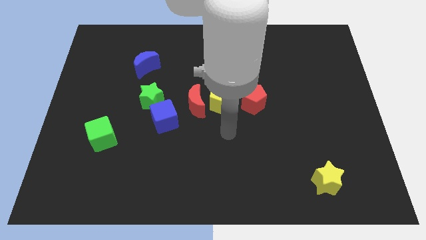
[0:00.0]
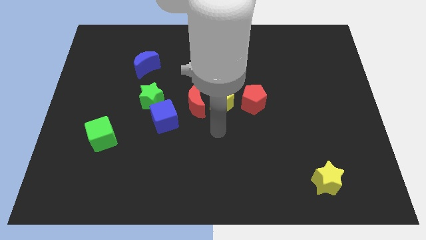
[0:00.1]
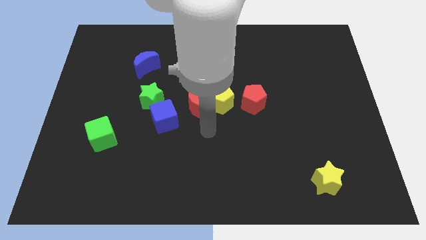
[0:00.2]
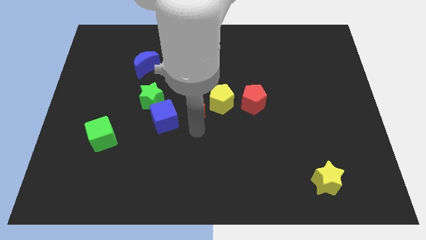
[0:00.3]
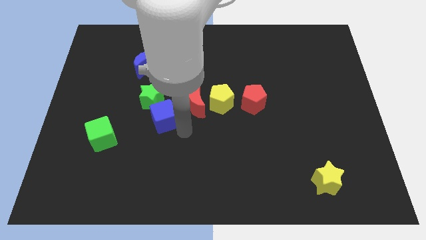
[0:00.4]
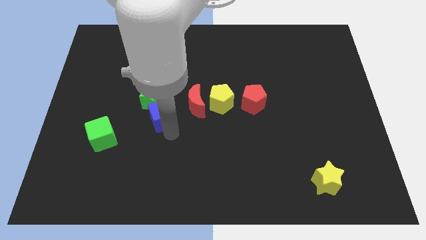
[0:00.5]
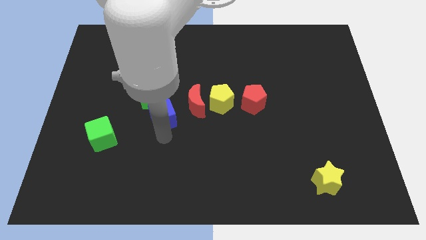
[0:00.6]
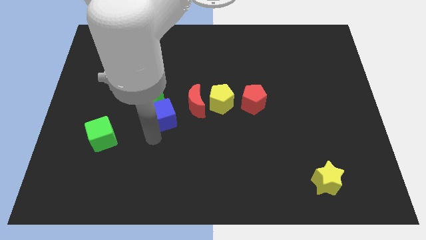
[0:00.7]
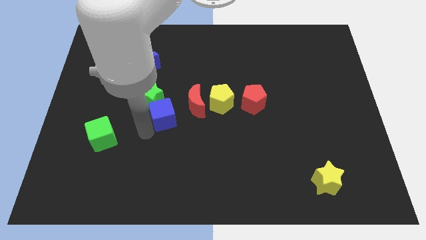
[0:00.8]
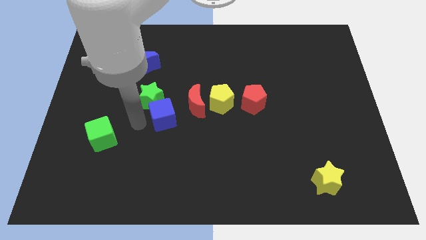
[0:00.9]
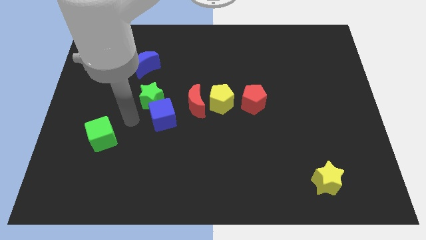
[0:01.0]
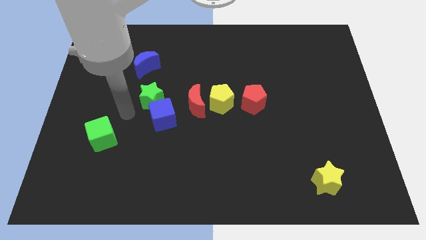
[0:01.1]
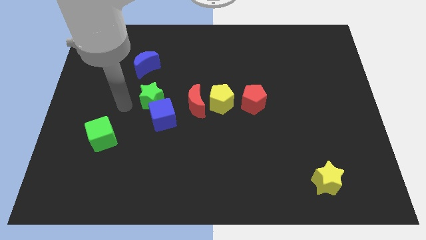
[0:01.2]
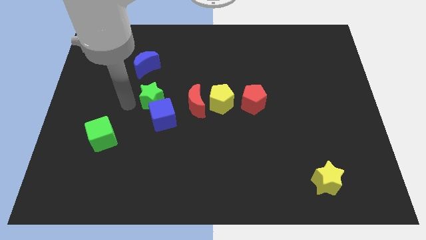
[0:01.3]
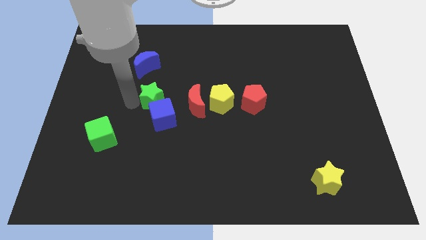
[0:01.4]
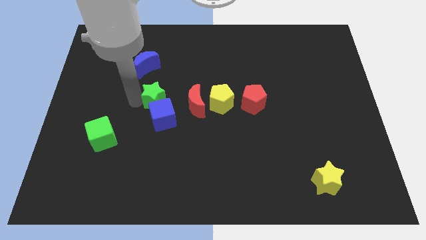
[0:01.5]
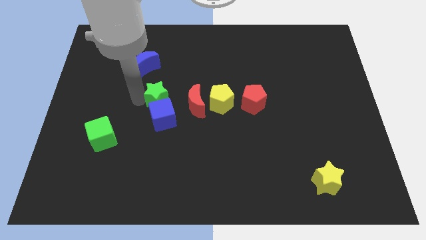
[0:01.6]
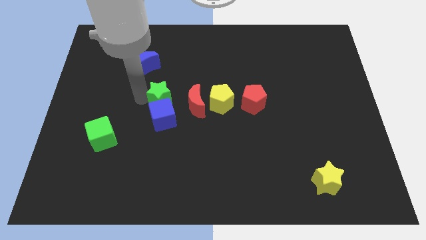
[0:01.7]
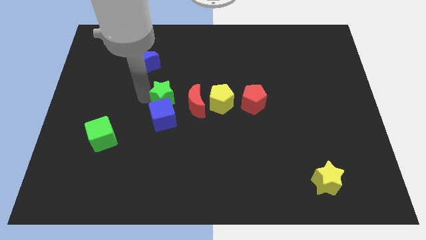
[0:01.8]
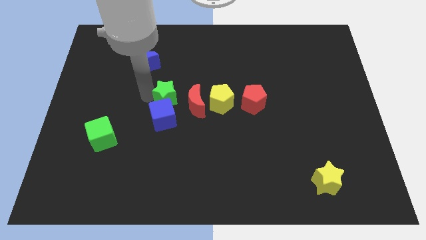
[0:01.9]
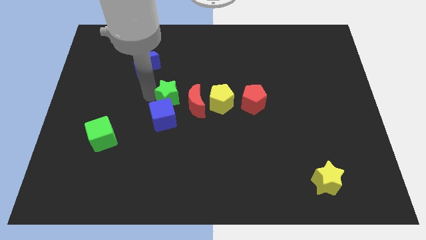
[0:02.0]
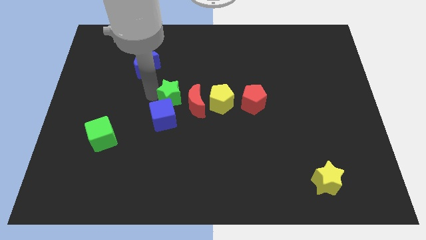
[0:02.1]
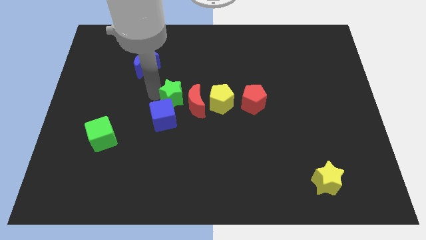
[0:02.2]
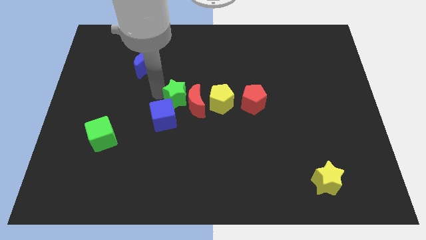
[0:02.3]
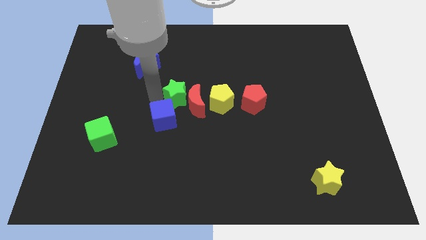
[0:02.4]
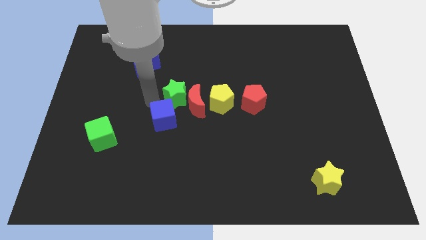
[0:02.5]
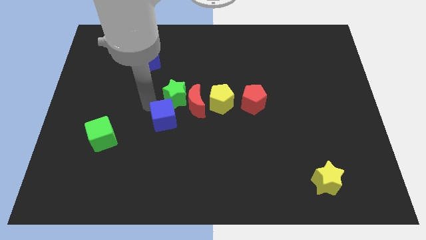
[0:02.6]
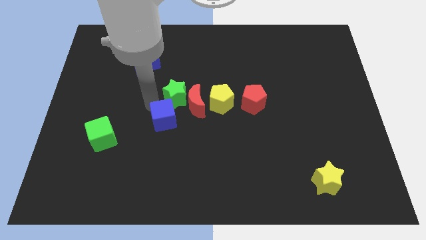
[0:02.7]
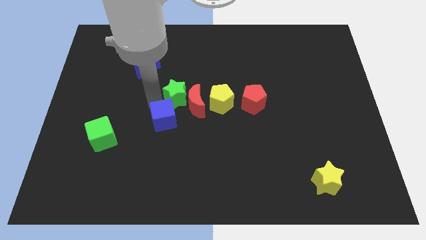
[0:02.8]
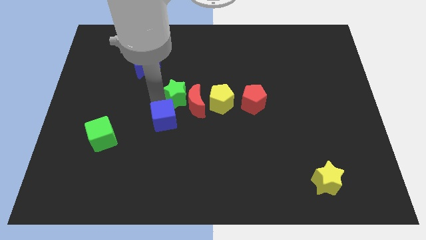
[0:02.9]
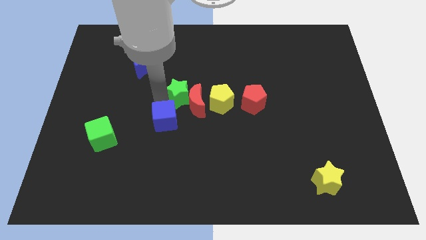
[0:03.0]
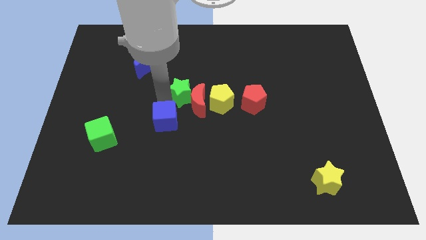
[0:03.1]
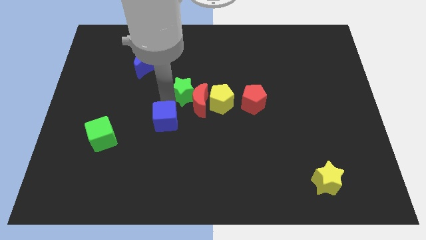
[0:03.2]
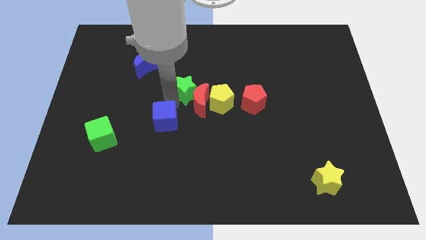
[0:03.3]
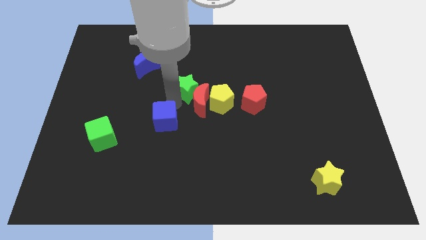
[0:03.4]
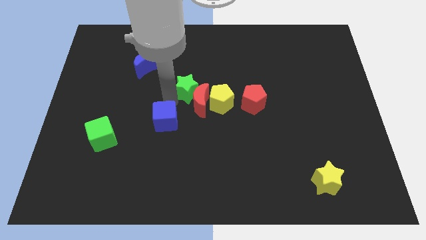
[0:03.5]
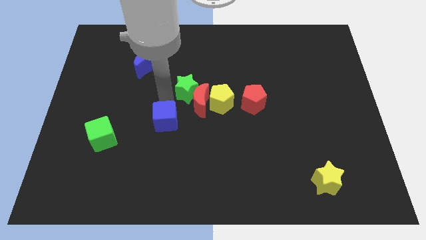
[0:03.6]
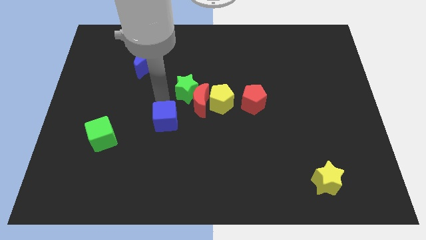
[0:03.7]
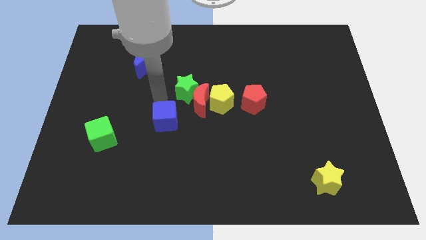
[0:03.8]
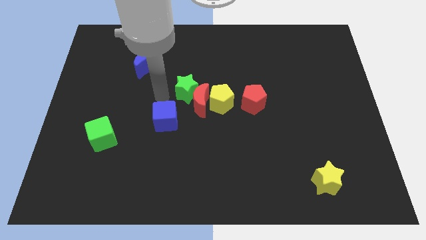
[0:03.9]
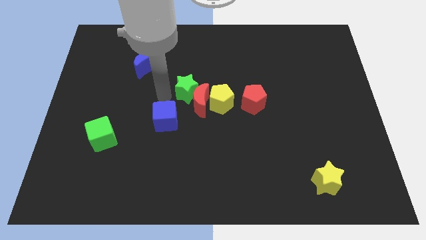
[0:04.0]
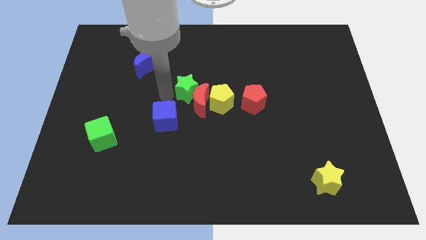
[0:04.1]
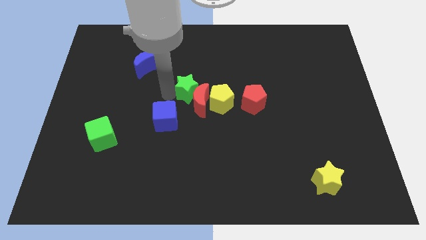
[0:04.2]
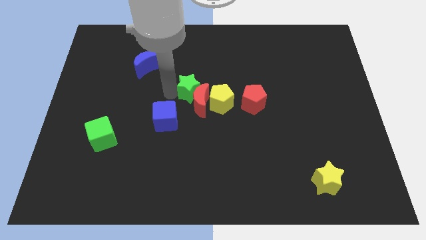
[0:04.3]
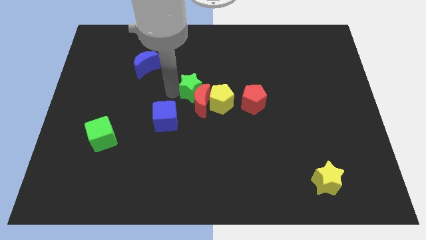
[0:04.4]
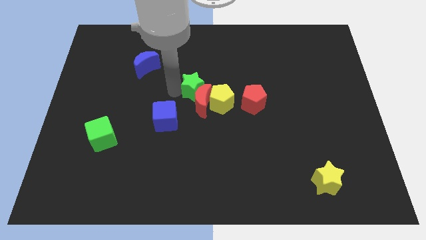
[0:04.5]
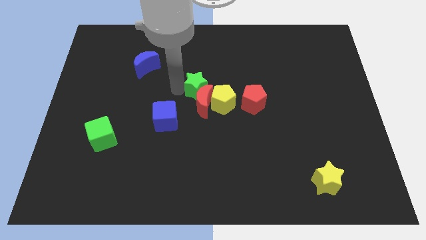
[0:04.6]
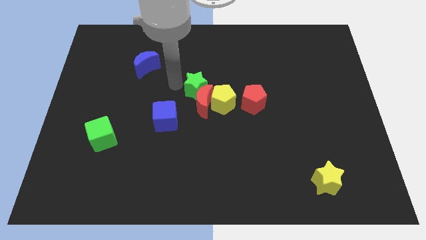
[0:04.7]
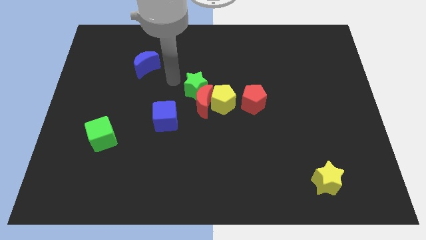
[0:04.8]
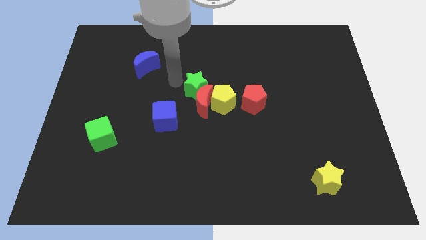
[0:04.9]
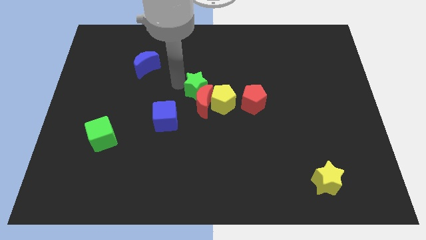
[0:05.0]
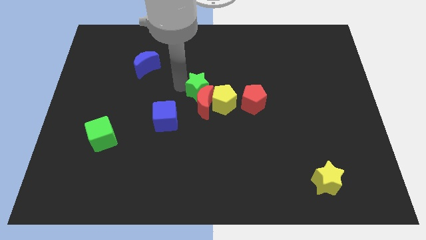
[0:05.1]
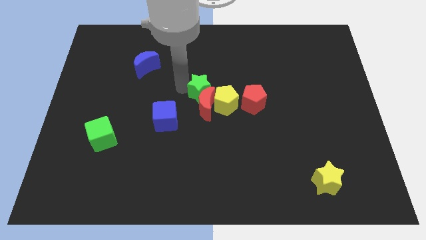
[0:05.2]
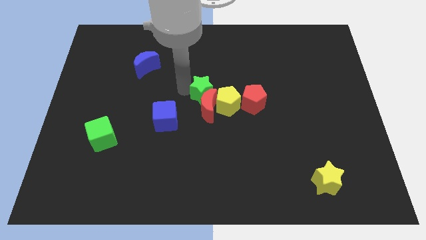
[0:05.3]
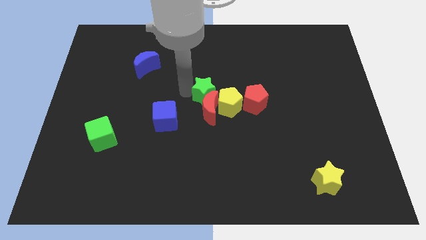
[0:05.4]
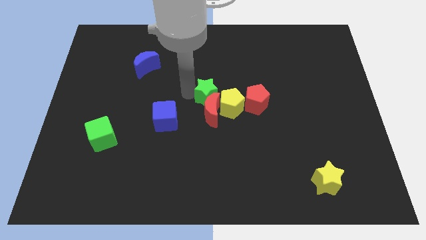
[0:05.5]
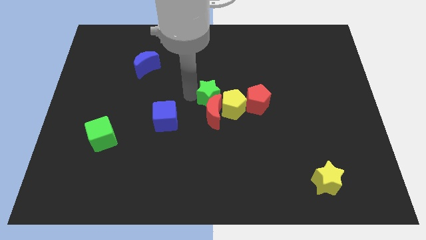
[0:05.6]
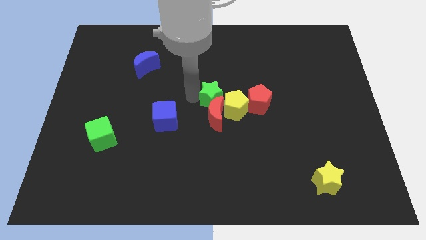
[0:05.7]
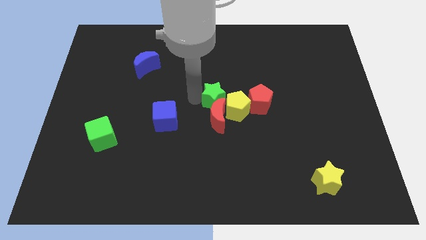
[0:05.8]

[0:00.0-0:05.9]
move the green star to the yellow pentagon

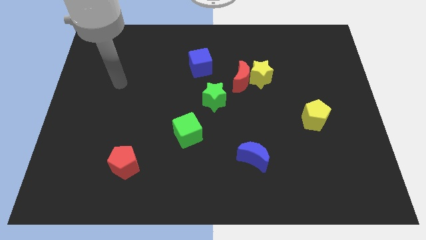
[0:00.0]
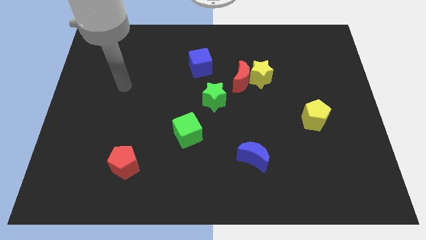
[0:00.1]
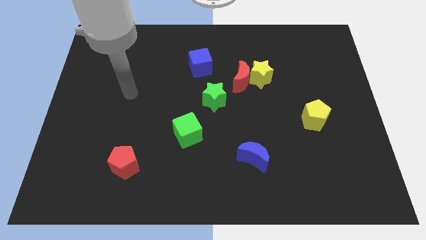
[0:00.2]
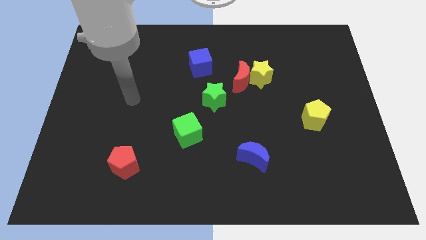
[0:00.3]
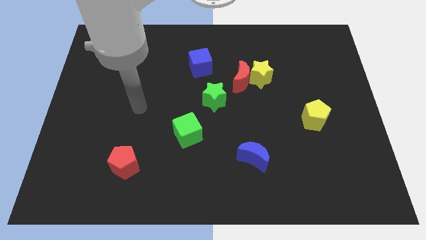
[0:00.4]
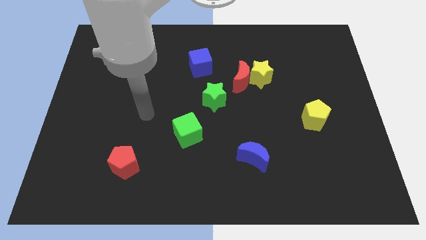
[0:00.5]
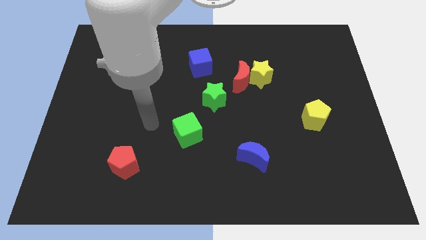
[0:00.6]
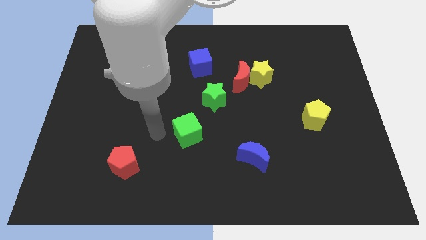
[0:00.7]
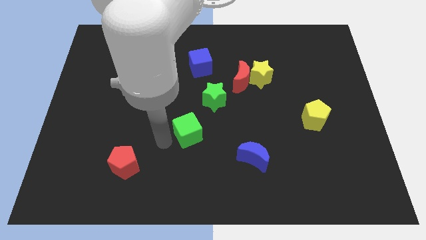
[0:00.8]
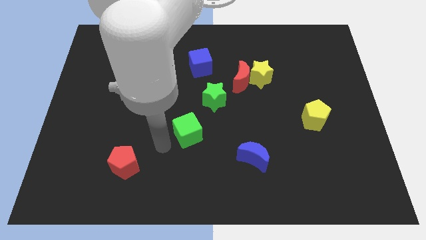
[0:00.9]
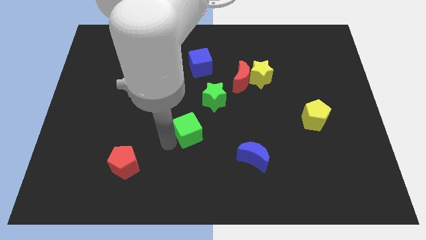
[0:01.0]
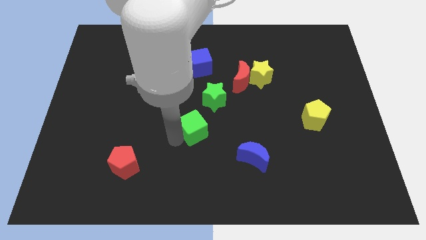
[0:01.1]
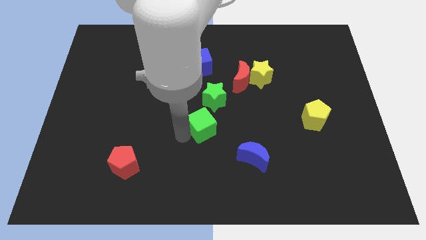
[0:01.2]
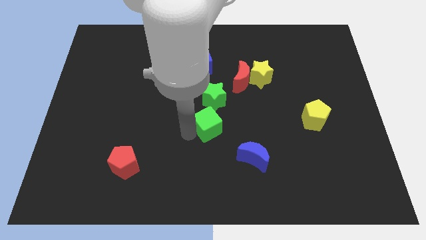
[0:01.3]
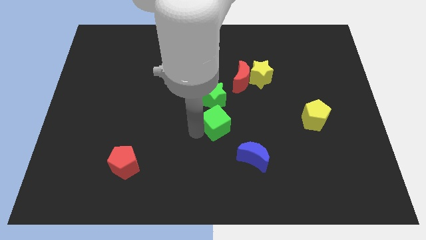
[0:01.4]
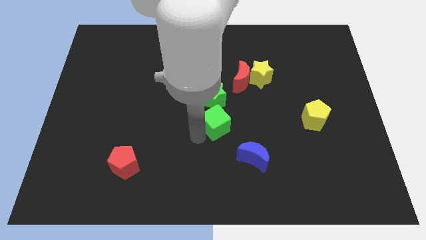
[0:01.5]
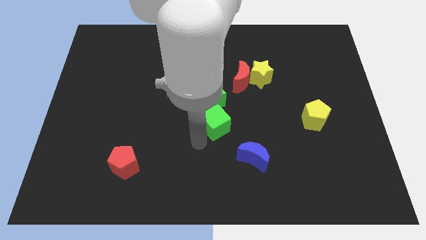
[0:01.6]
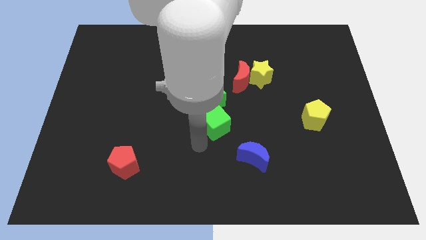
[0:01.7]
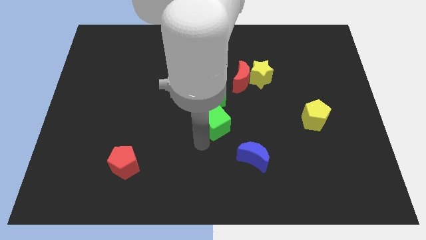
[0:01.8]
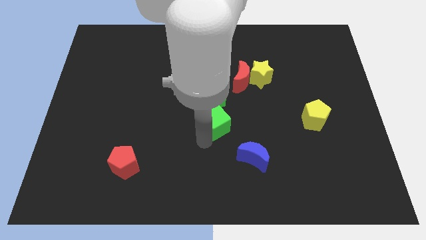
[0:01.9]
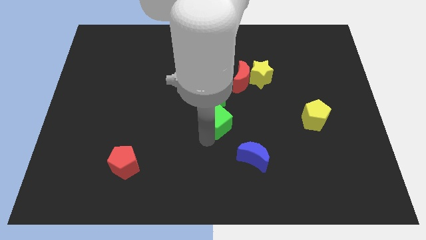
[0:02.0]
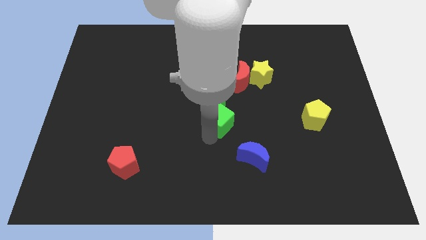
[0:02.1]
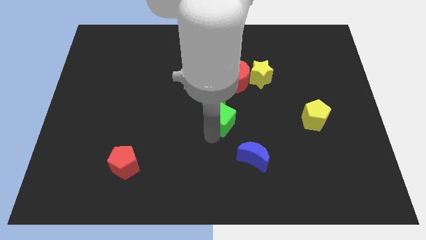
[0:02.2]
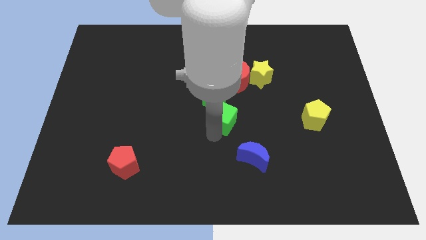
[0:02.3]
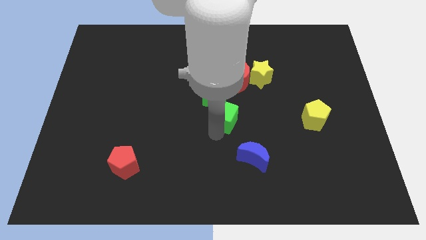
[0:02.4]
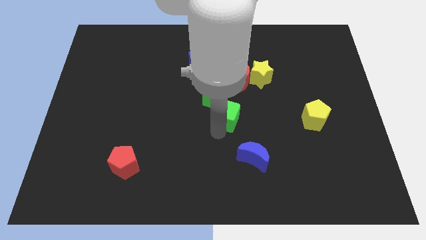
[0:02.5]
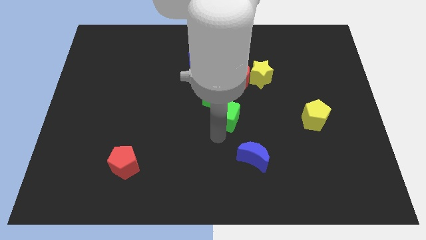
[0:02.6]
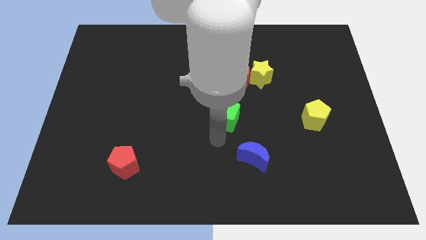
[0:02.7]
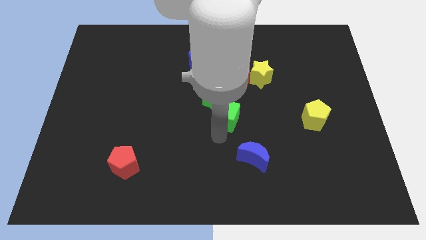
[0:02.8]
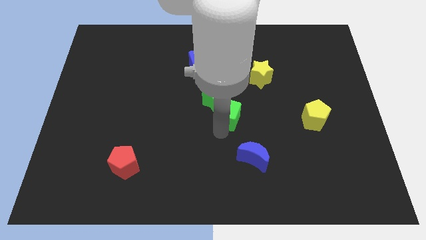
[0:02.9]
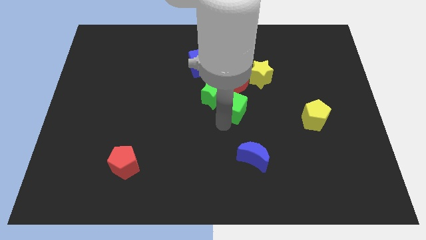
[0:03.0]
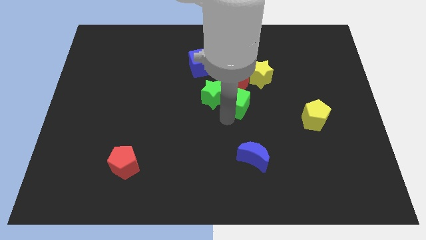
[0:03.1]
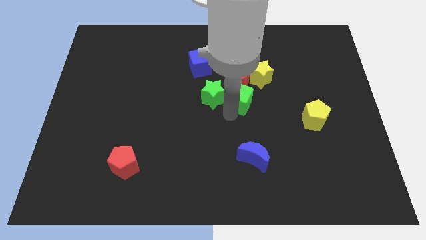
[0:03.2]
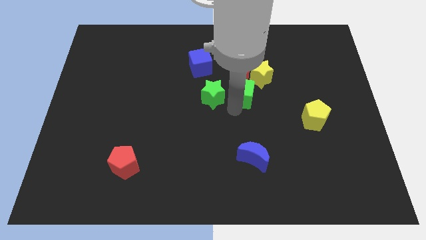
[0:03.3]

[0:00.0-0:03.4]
put the green cube towards the red moon
